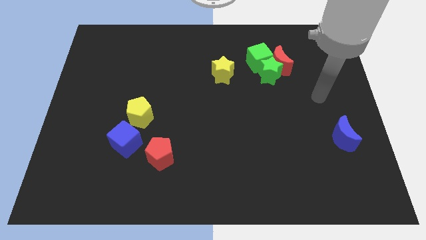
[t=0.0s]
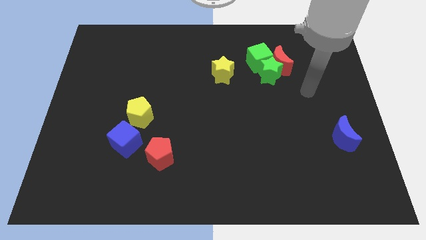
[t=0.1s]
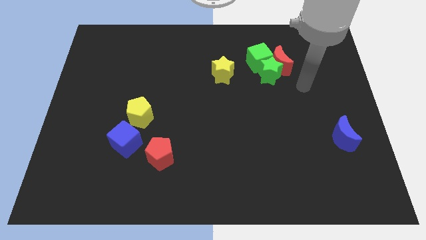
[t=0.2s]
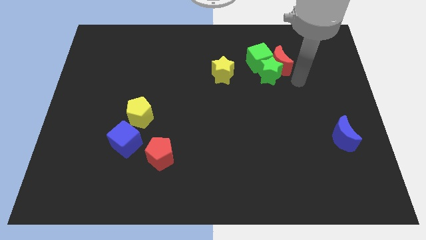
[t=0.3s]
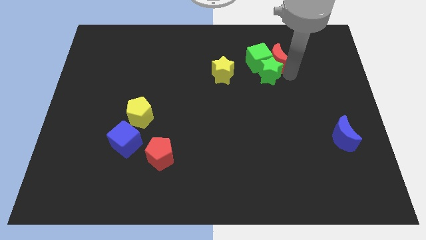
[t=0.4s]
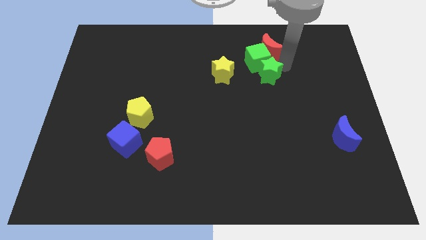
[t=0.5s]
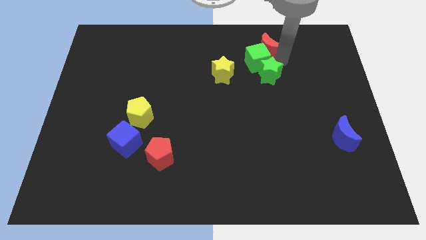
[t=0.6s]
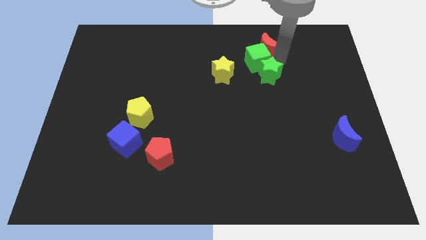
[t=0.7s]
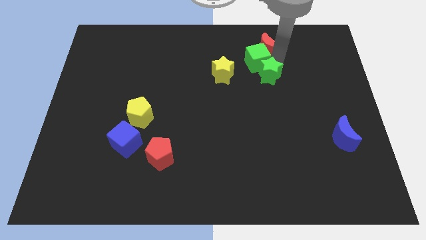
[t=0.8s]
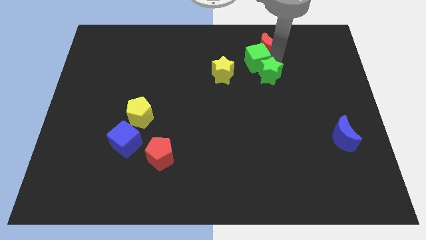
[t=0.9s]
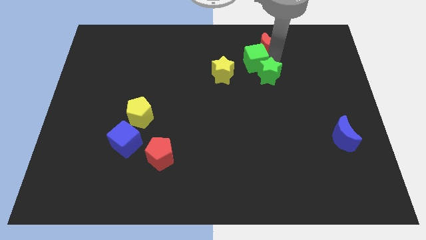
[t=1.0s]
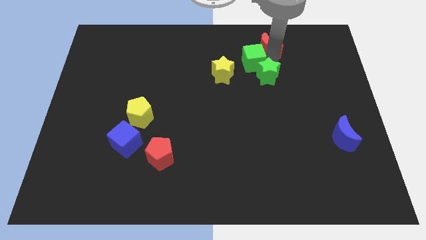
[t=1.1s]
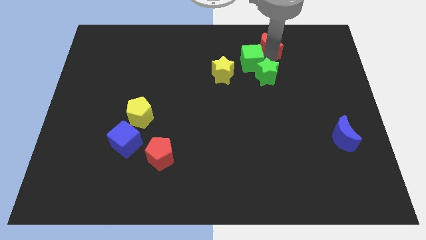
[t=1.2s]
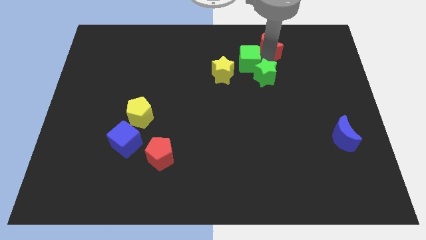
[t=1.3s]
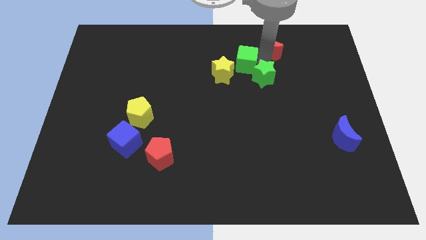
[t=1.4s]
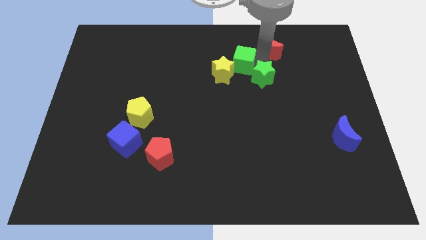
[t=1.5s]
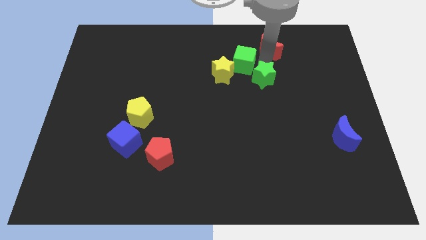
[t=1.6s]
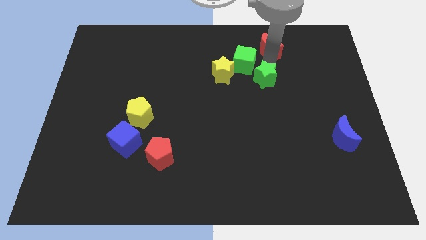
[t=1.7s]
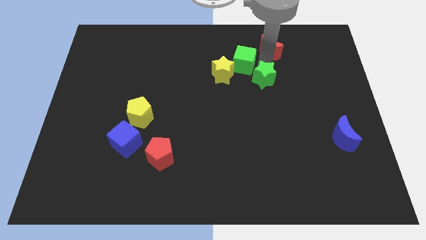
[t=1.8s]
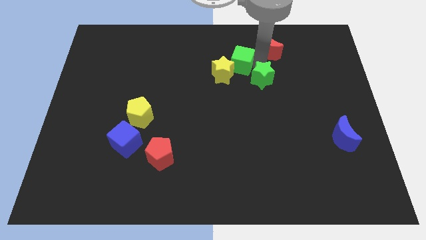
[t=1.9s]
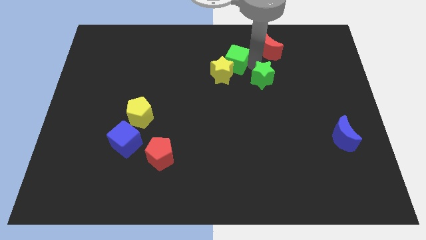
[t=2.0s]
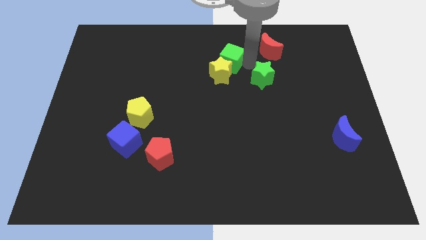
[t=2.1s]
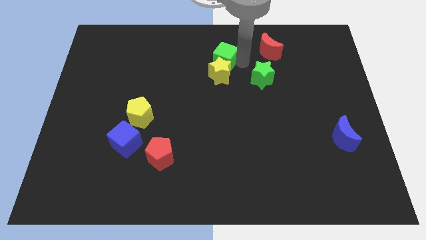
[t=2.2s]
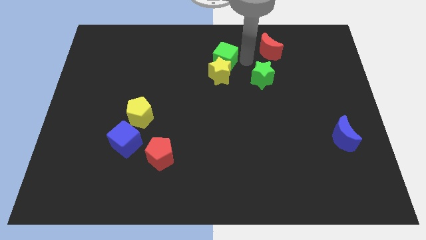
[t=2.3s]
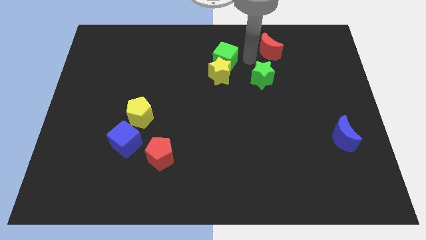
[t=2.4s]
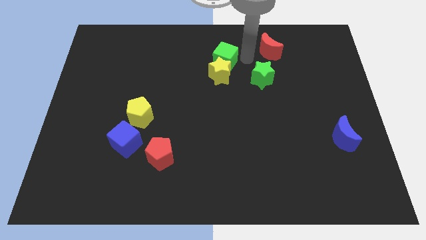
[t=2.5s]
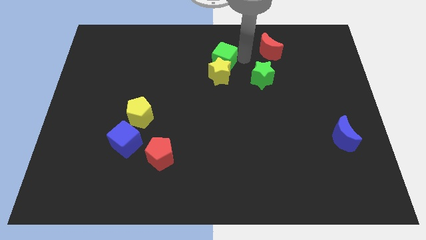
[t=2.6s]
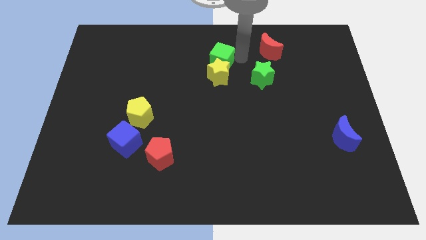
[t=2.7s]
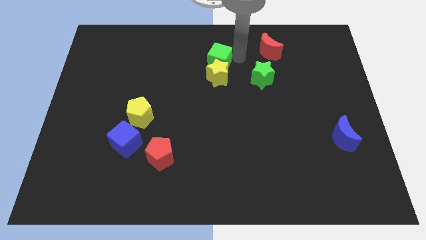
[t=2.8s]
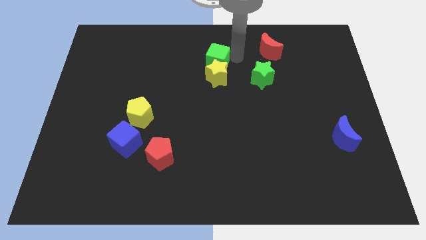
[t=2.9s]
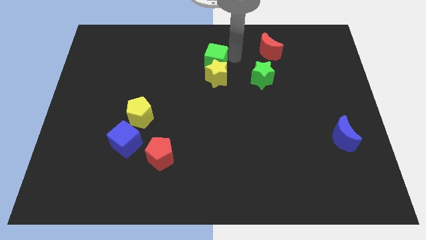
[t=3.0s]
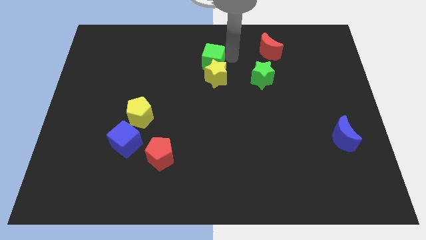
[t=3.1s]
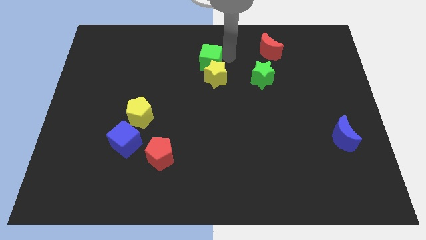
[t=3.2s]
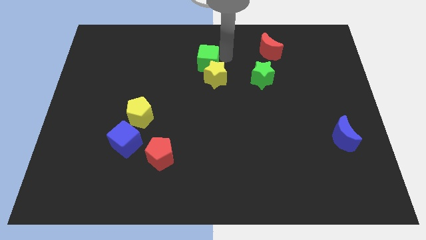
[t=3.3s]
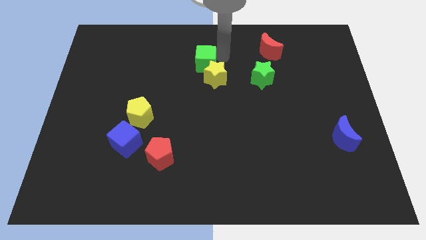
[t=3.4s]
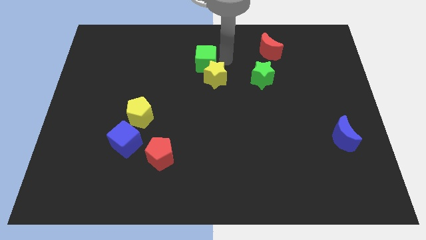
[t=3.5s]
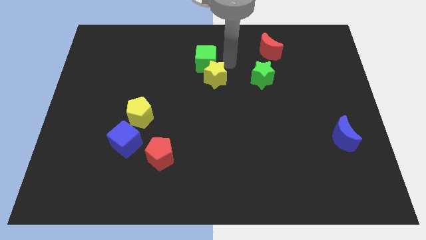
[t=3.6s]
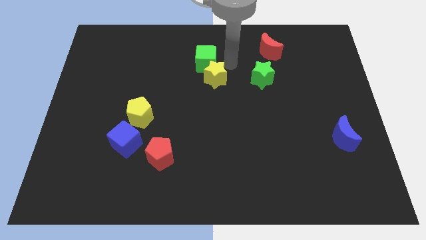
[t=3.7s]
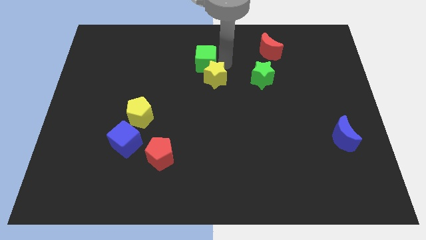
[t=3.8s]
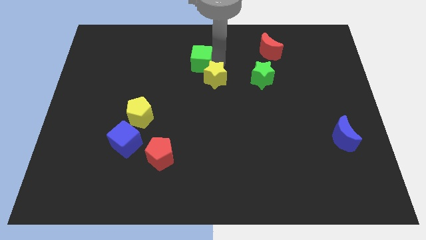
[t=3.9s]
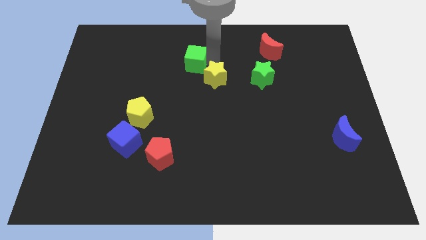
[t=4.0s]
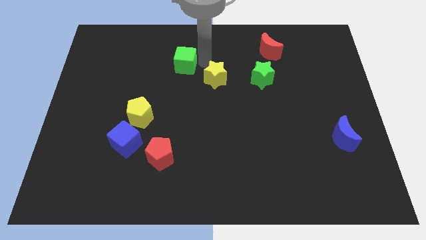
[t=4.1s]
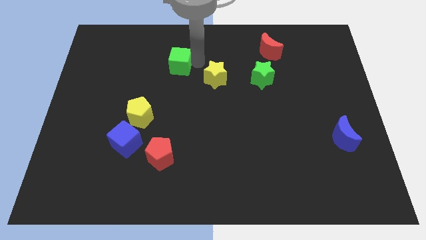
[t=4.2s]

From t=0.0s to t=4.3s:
push the green cube to the left

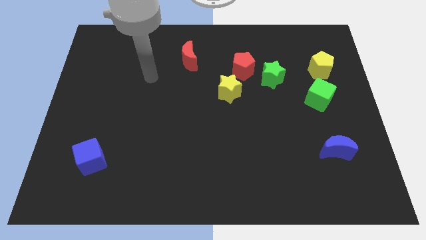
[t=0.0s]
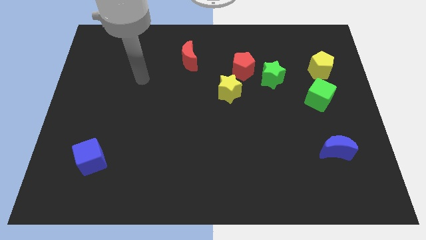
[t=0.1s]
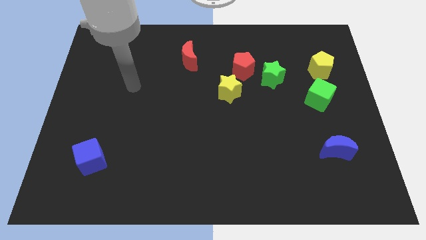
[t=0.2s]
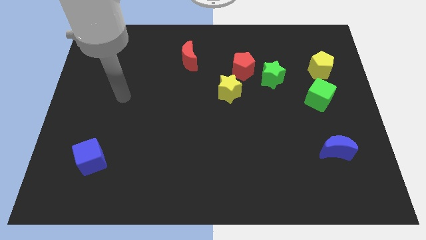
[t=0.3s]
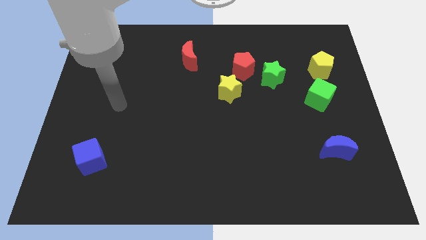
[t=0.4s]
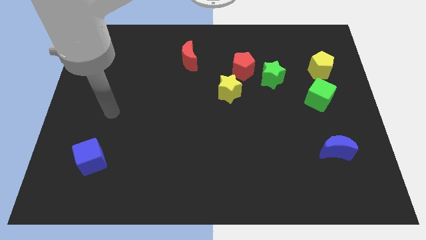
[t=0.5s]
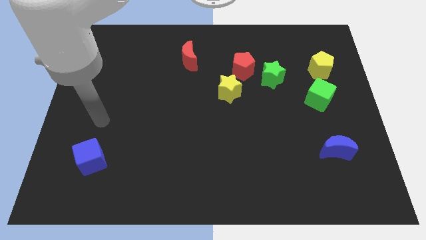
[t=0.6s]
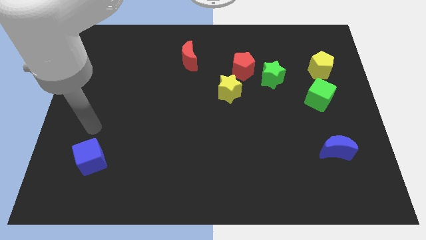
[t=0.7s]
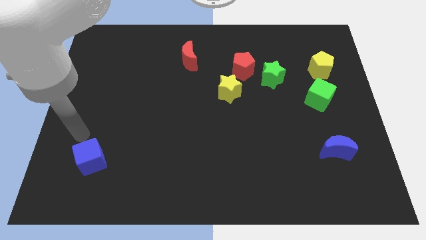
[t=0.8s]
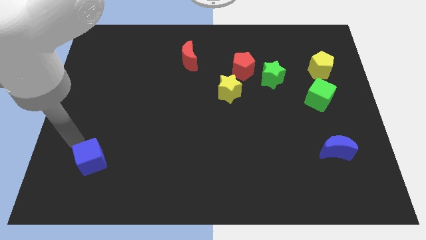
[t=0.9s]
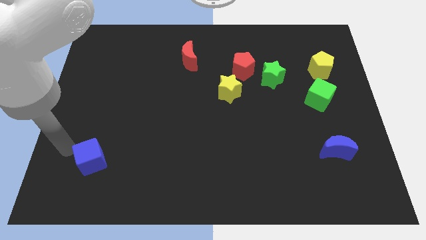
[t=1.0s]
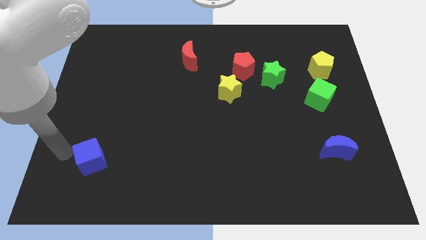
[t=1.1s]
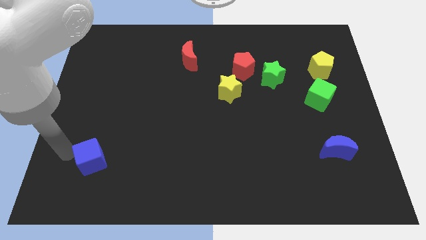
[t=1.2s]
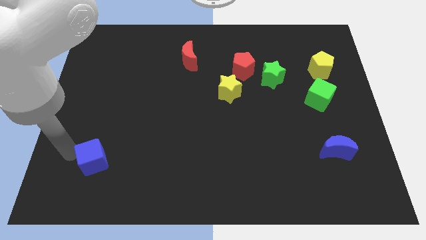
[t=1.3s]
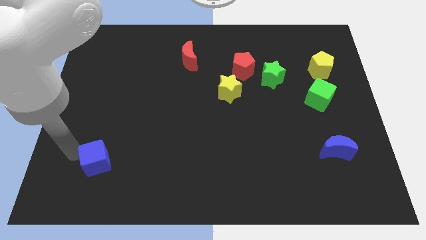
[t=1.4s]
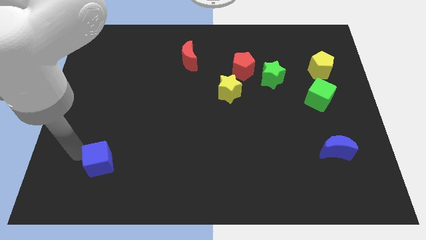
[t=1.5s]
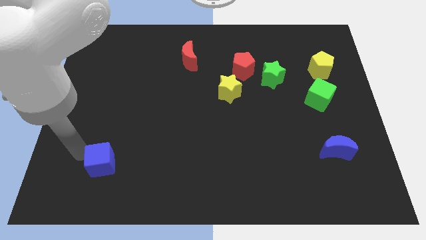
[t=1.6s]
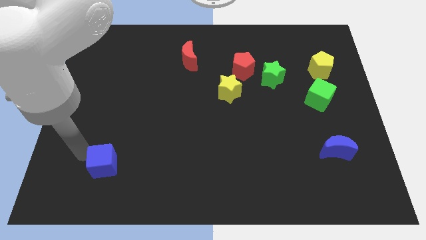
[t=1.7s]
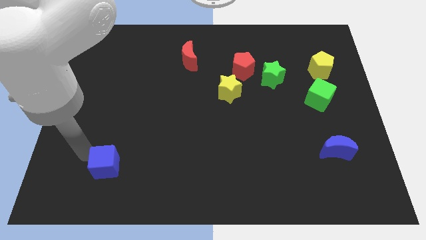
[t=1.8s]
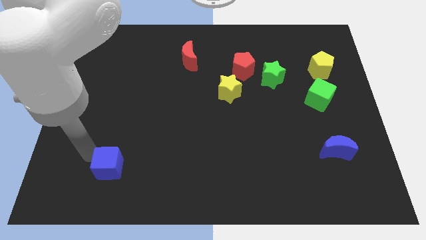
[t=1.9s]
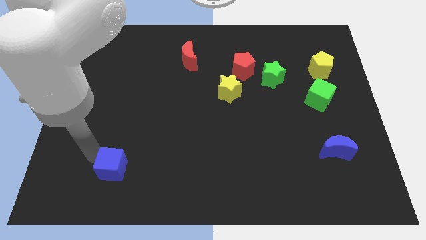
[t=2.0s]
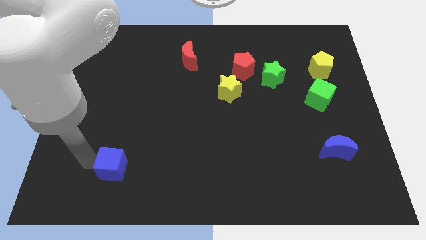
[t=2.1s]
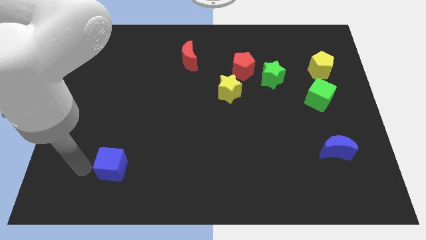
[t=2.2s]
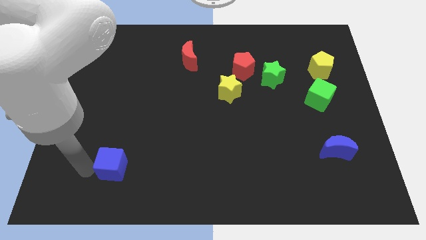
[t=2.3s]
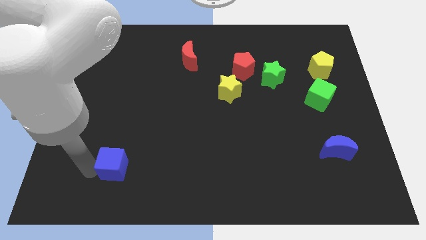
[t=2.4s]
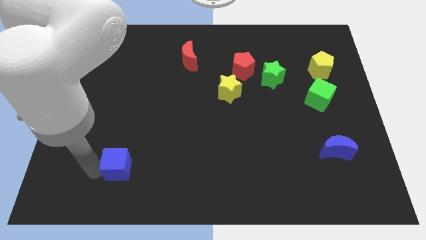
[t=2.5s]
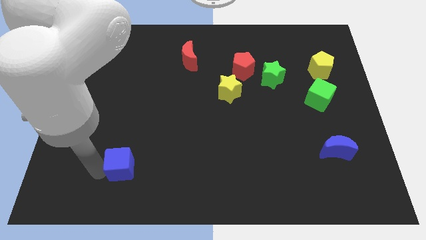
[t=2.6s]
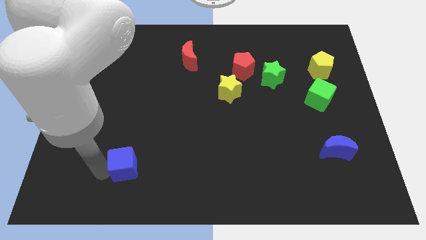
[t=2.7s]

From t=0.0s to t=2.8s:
slightly move the blue cube to the right

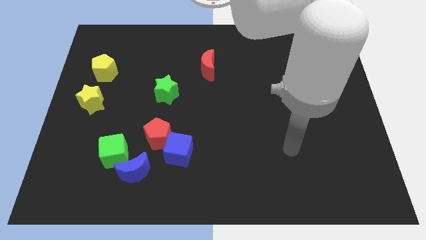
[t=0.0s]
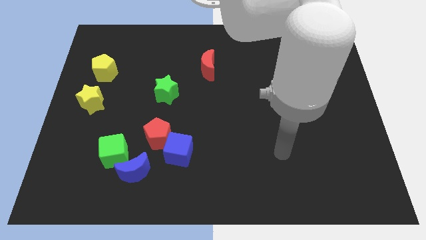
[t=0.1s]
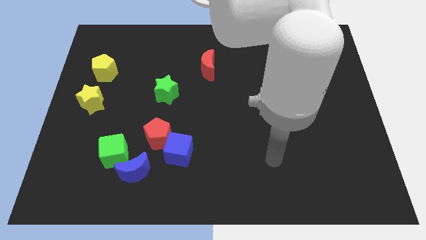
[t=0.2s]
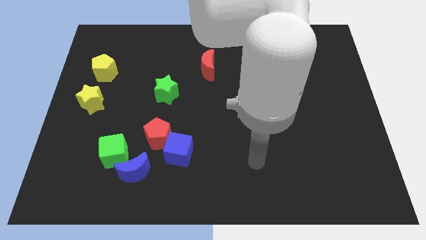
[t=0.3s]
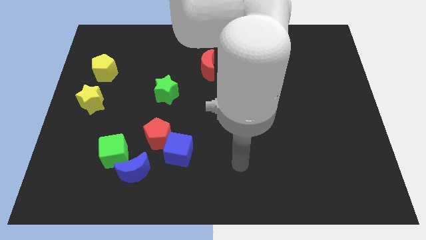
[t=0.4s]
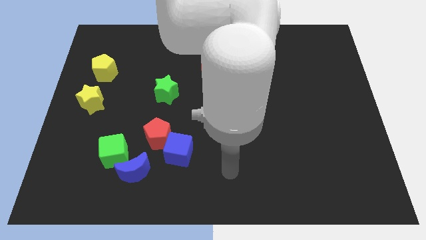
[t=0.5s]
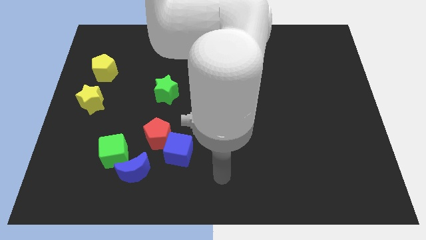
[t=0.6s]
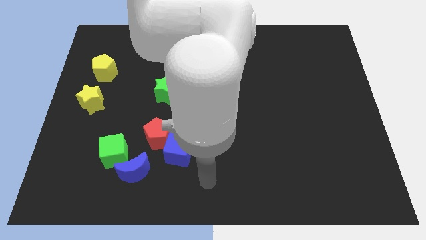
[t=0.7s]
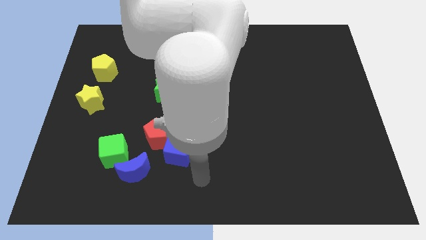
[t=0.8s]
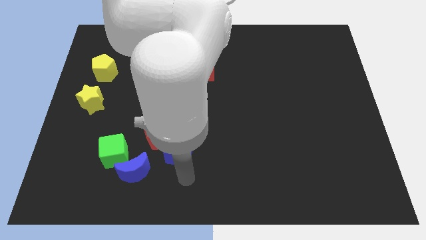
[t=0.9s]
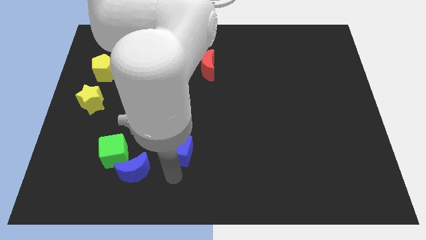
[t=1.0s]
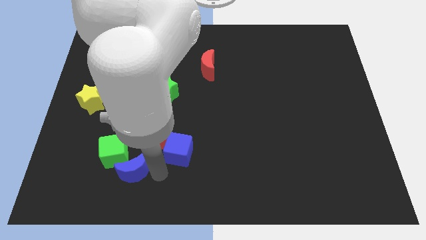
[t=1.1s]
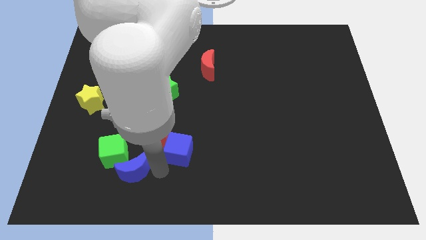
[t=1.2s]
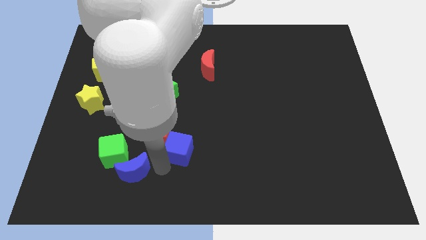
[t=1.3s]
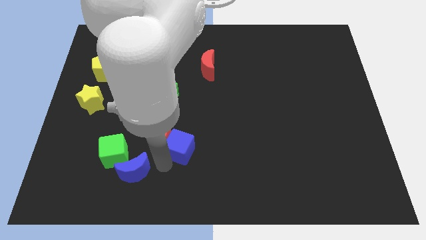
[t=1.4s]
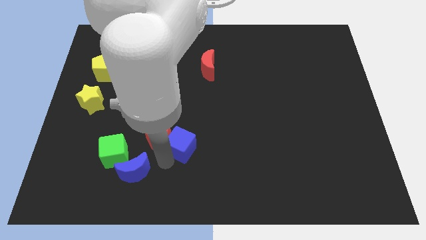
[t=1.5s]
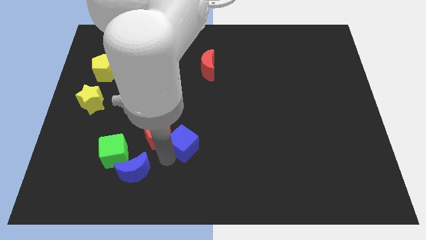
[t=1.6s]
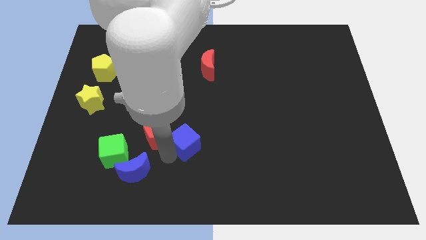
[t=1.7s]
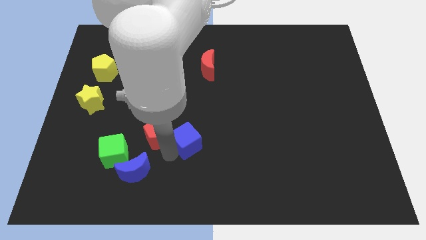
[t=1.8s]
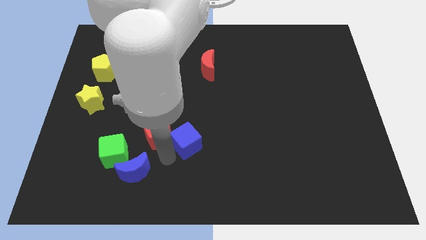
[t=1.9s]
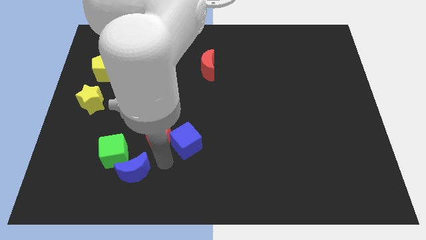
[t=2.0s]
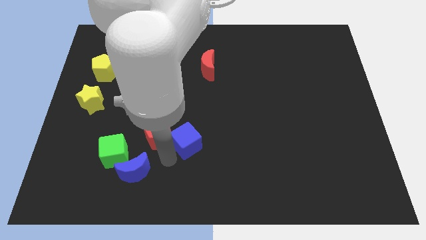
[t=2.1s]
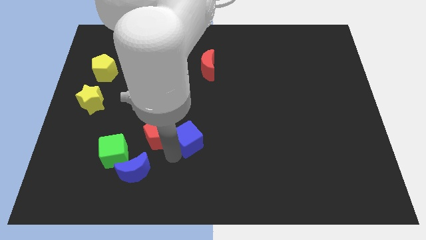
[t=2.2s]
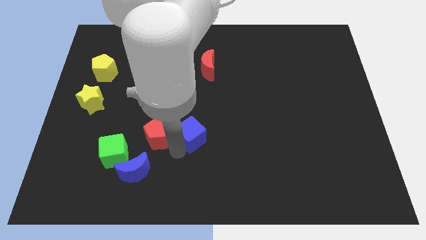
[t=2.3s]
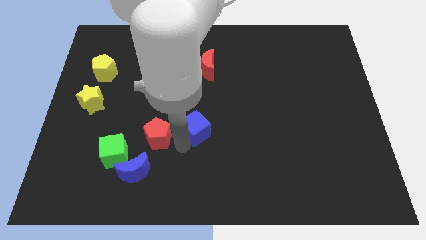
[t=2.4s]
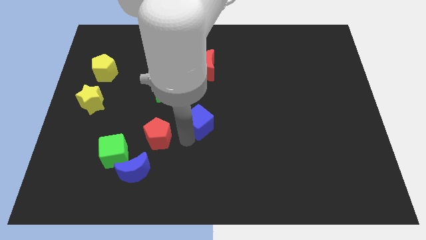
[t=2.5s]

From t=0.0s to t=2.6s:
slightly move the blue cube up and to the right diagonally
